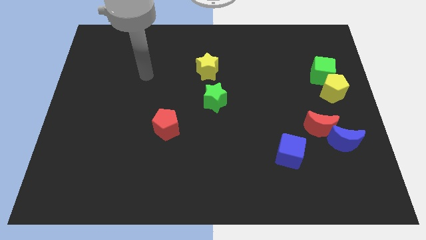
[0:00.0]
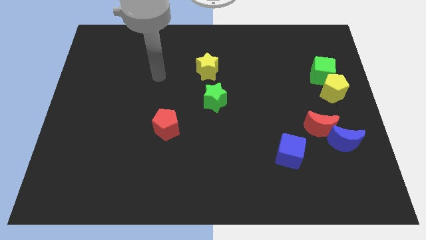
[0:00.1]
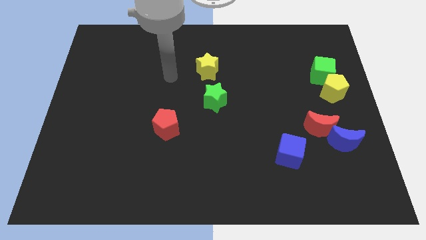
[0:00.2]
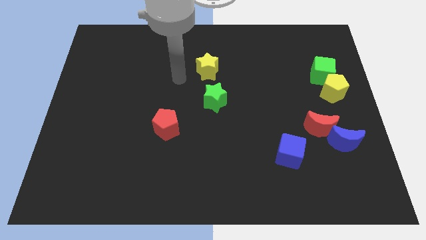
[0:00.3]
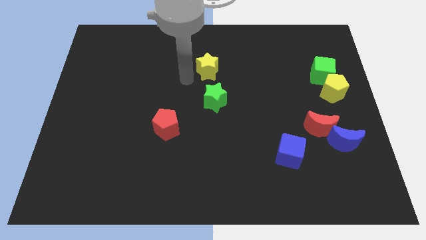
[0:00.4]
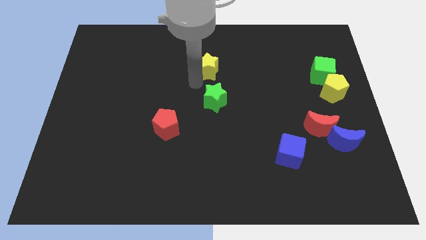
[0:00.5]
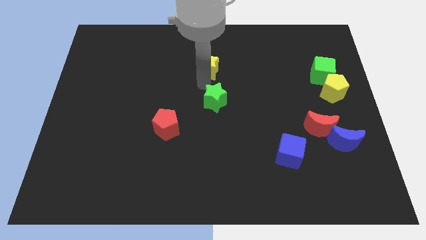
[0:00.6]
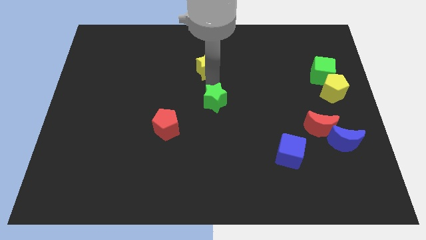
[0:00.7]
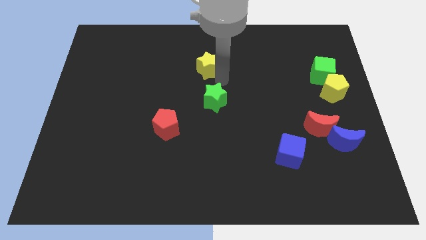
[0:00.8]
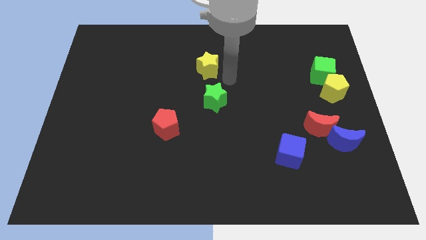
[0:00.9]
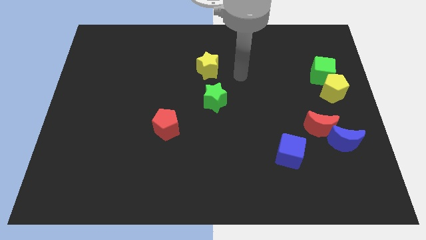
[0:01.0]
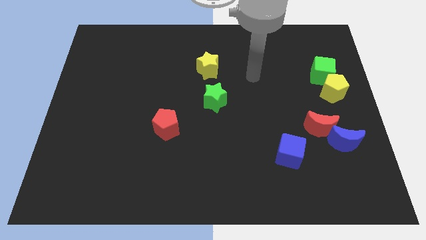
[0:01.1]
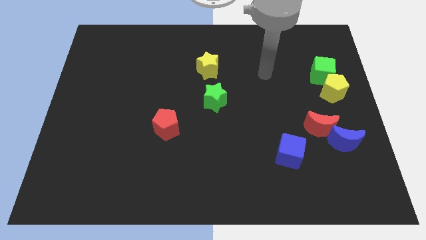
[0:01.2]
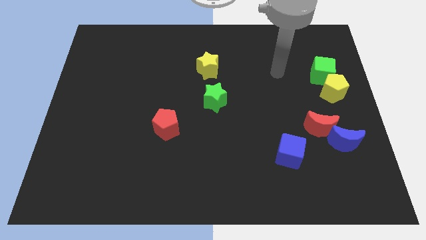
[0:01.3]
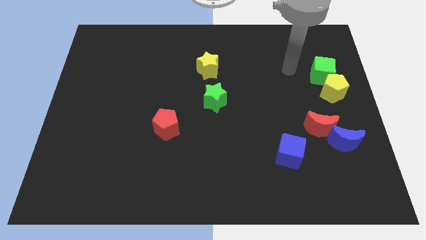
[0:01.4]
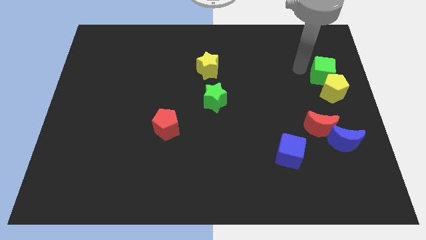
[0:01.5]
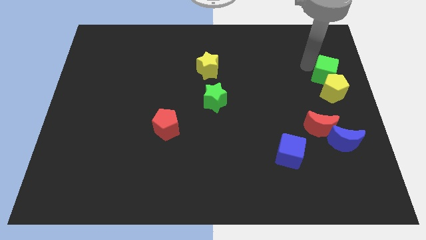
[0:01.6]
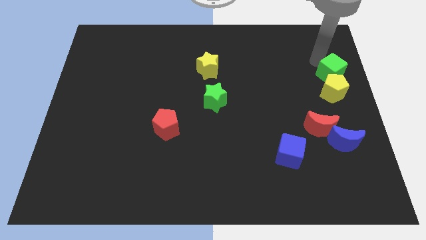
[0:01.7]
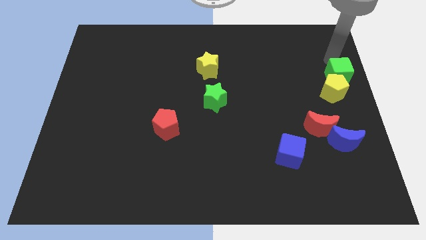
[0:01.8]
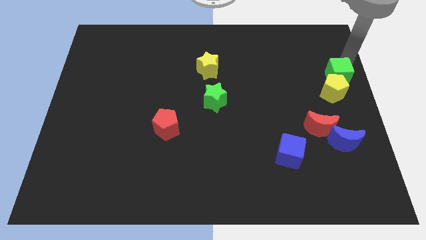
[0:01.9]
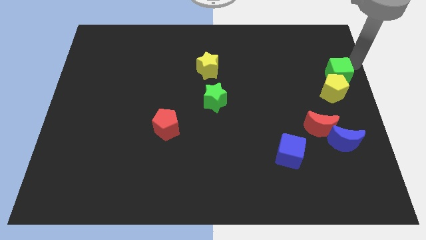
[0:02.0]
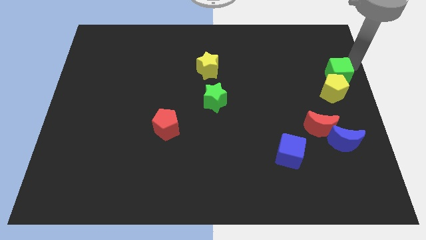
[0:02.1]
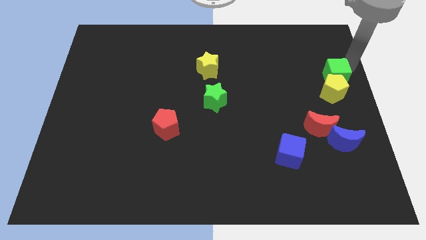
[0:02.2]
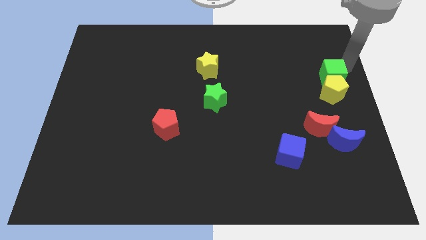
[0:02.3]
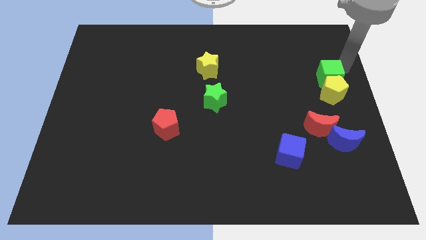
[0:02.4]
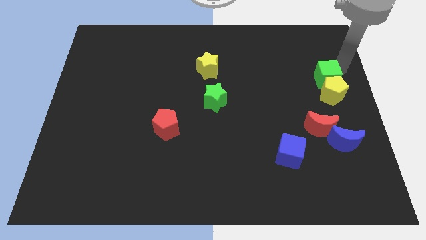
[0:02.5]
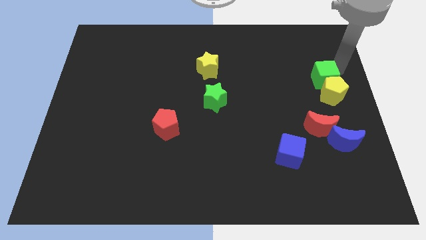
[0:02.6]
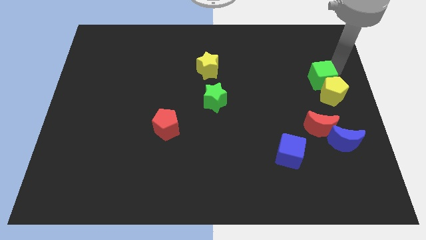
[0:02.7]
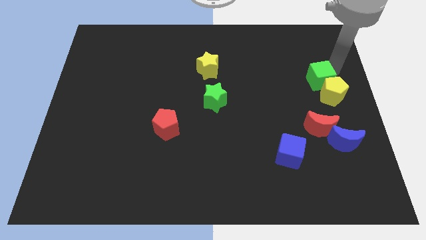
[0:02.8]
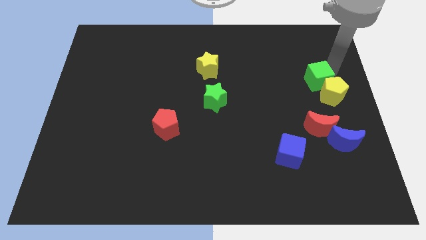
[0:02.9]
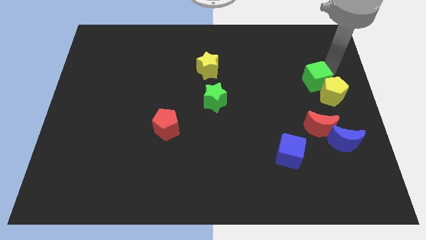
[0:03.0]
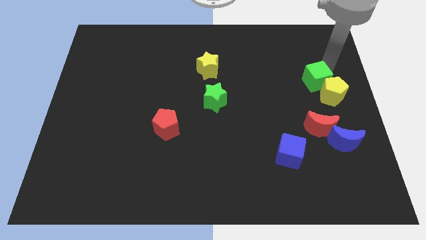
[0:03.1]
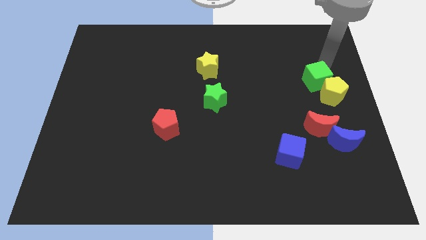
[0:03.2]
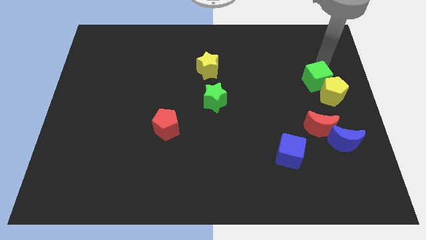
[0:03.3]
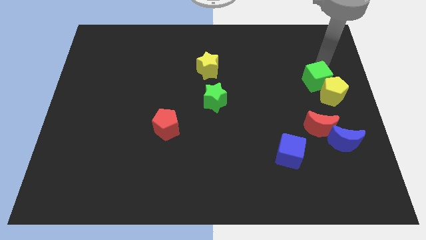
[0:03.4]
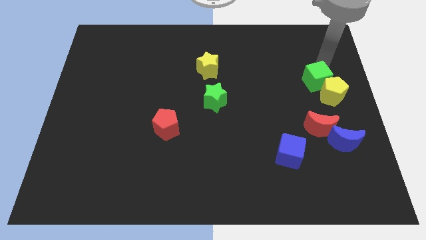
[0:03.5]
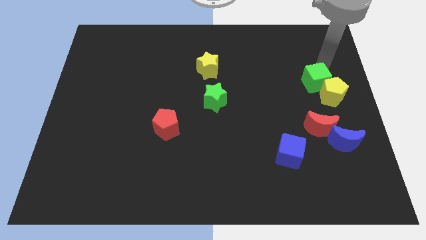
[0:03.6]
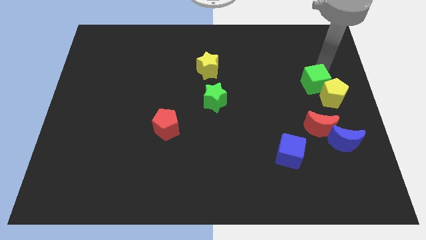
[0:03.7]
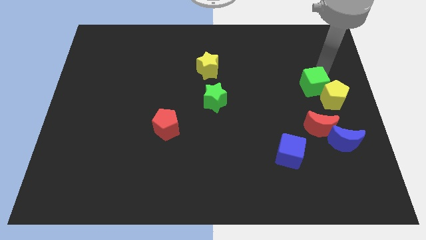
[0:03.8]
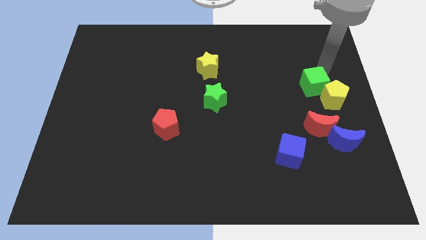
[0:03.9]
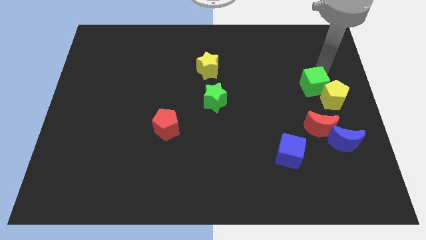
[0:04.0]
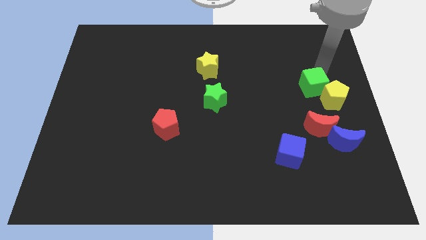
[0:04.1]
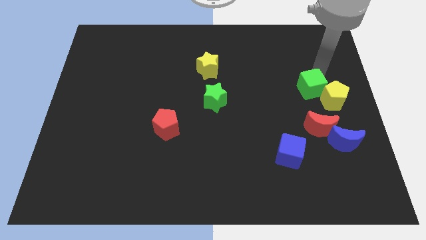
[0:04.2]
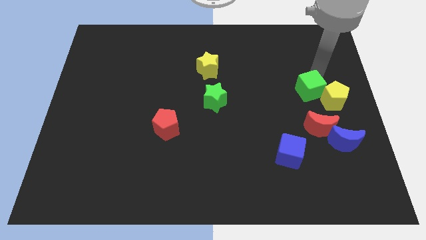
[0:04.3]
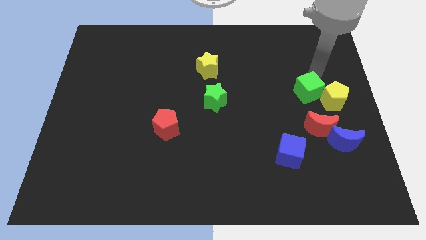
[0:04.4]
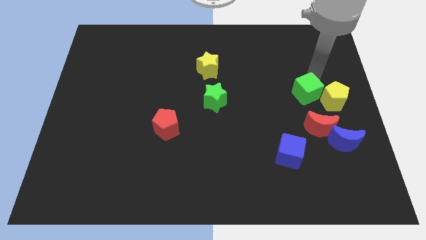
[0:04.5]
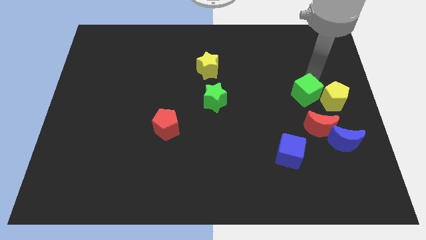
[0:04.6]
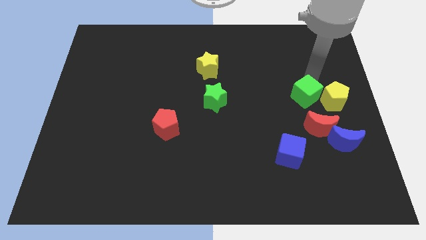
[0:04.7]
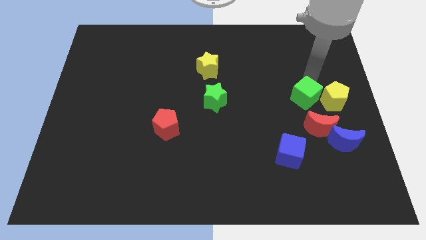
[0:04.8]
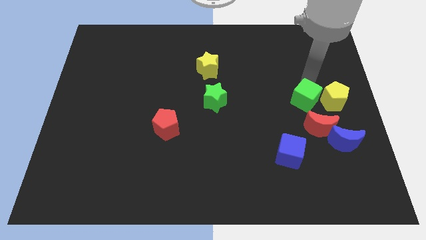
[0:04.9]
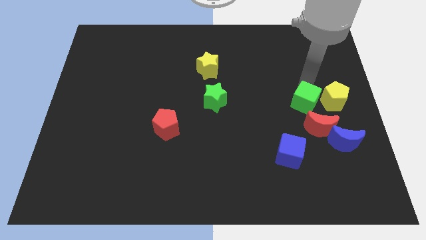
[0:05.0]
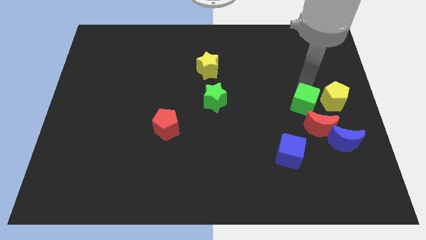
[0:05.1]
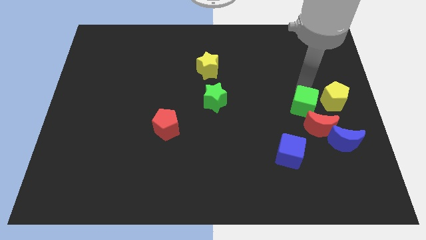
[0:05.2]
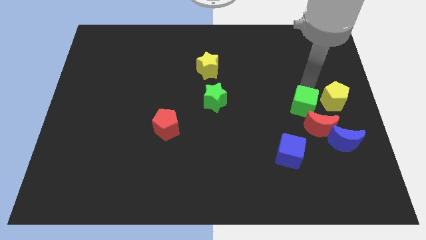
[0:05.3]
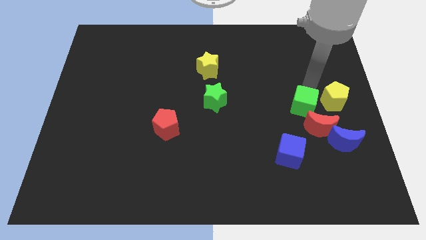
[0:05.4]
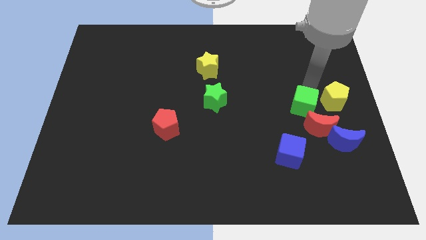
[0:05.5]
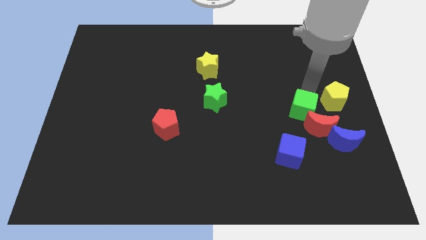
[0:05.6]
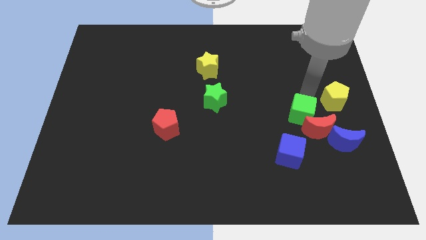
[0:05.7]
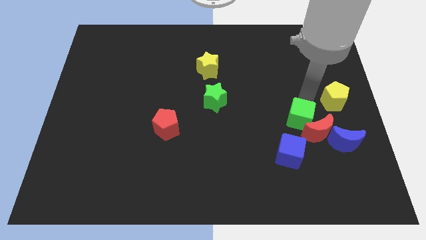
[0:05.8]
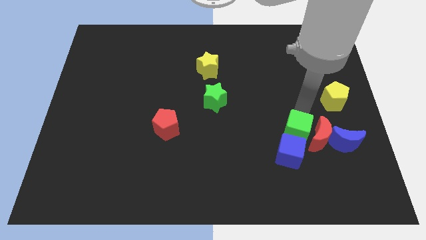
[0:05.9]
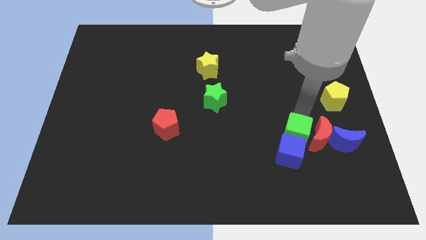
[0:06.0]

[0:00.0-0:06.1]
push the green cube towards the blue cube

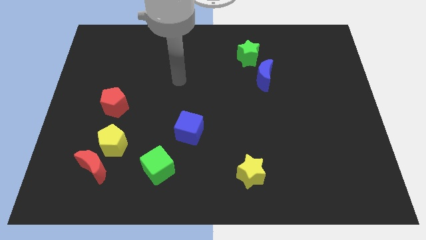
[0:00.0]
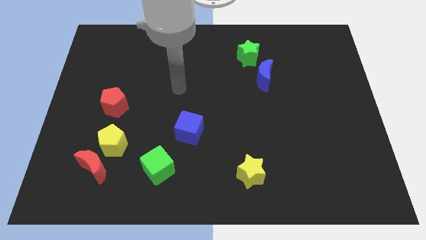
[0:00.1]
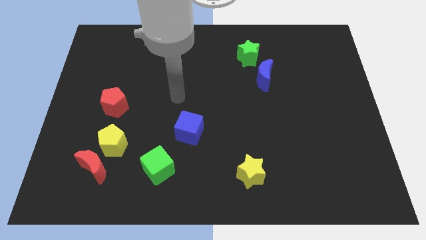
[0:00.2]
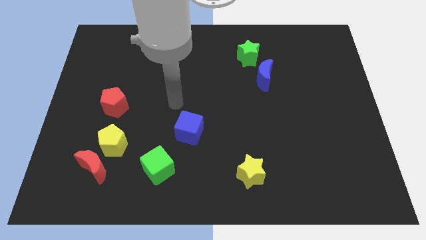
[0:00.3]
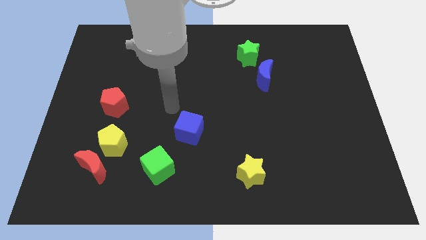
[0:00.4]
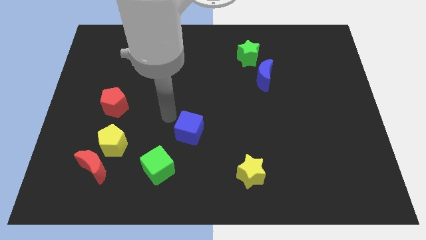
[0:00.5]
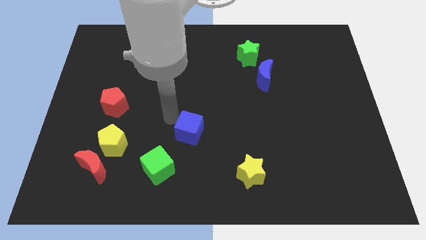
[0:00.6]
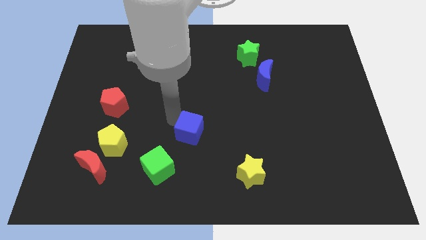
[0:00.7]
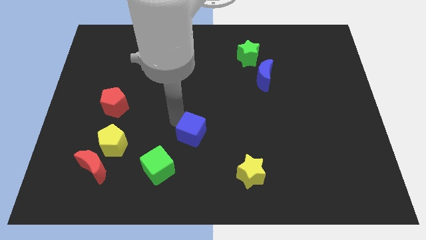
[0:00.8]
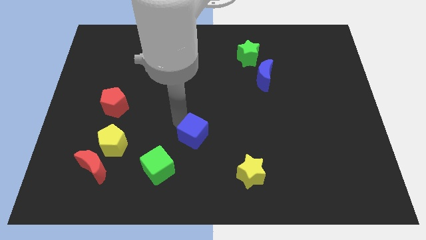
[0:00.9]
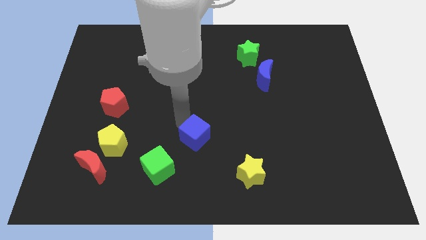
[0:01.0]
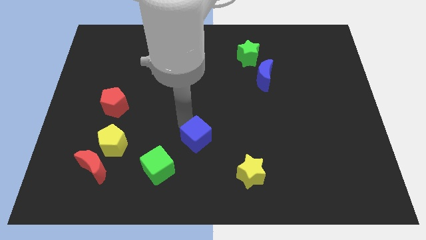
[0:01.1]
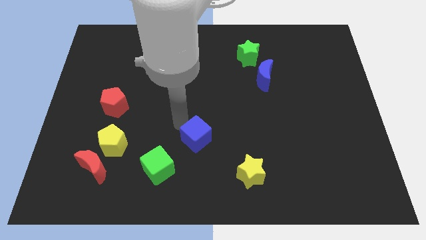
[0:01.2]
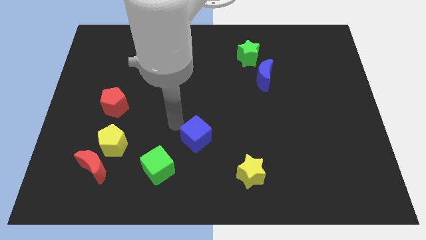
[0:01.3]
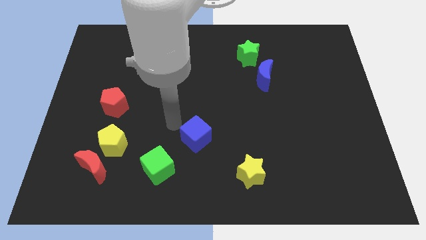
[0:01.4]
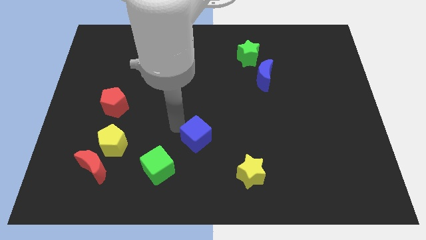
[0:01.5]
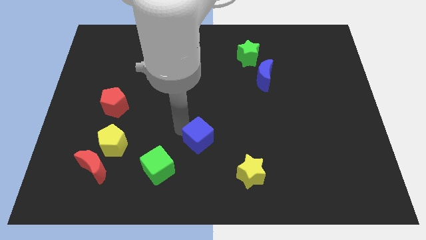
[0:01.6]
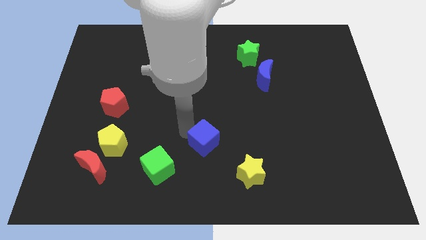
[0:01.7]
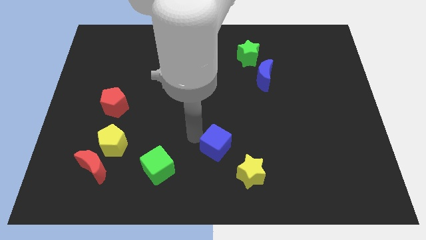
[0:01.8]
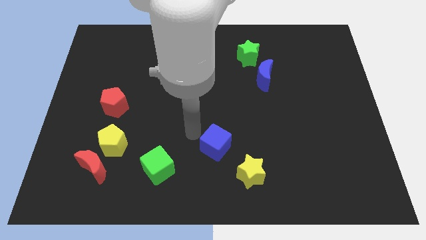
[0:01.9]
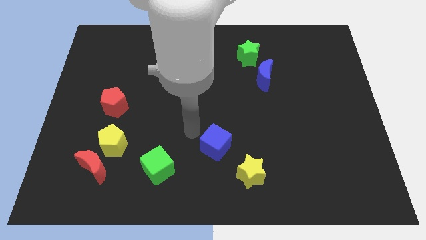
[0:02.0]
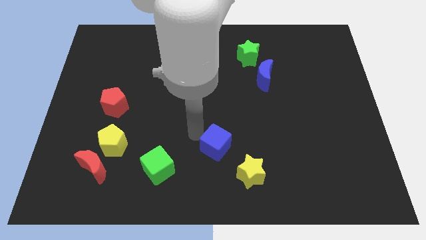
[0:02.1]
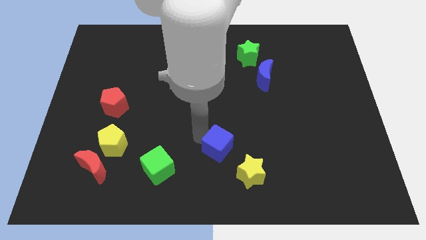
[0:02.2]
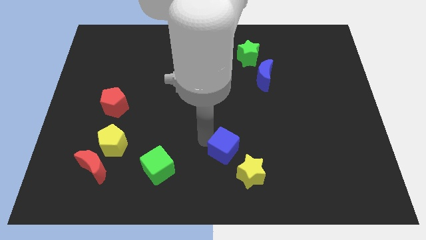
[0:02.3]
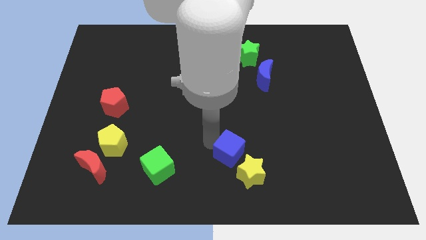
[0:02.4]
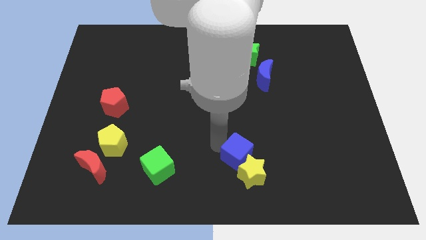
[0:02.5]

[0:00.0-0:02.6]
put the blue cube close to the yellow star
